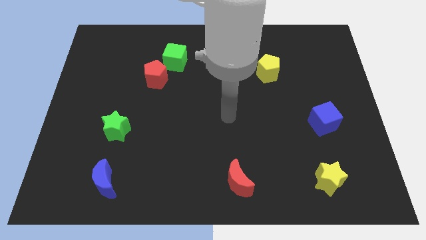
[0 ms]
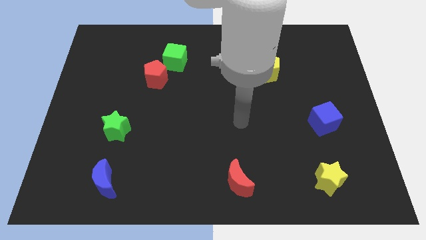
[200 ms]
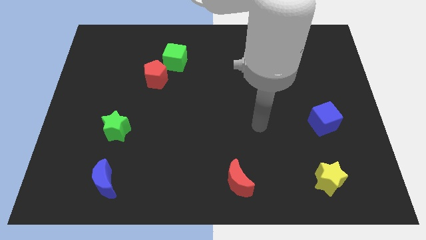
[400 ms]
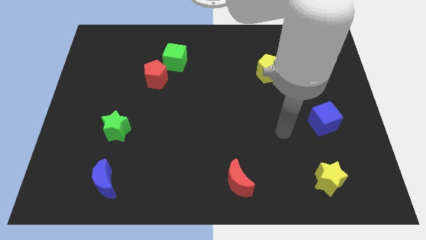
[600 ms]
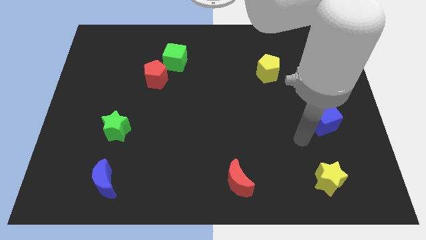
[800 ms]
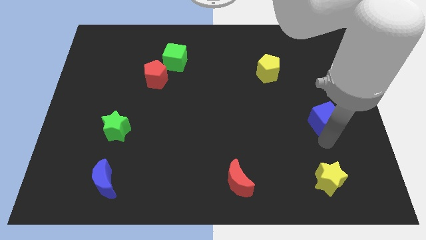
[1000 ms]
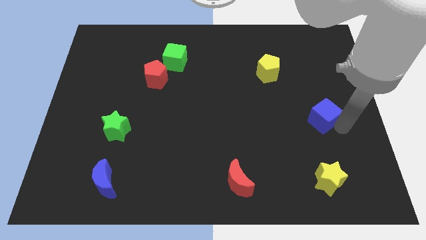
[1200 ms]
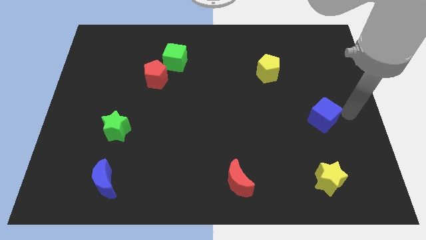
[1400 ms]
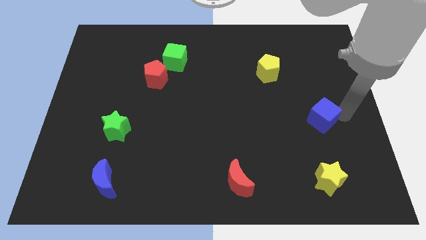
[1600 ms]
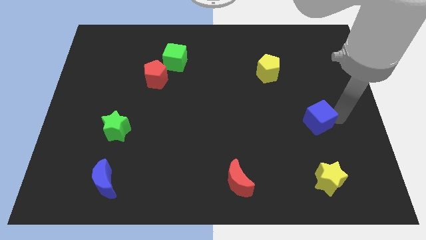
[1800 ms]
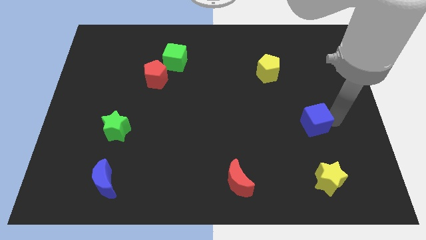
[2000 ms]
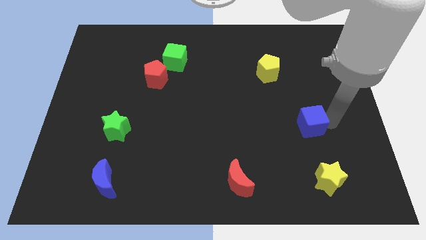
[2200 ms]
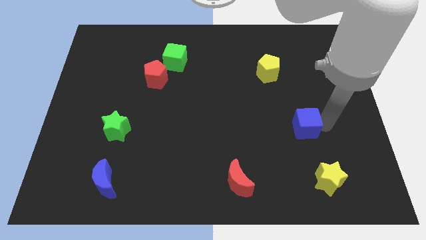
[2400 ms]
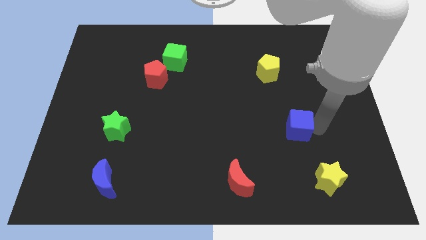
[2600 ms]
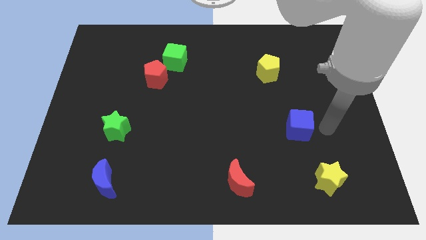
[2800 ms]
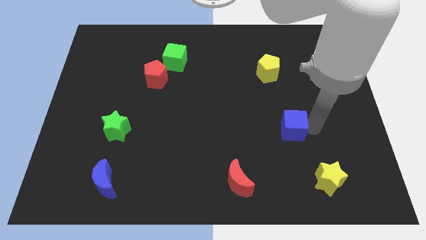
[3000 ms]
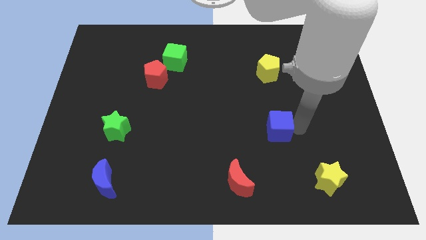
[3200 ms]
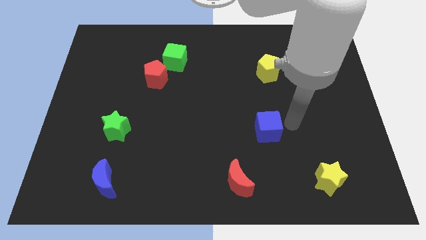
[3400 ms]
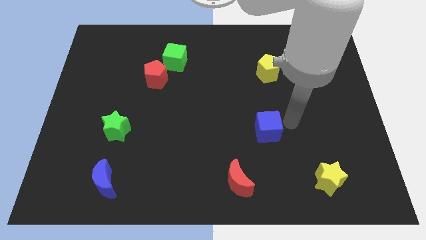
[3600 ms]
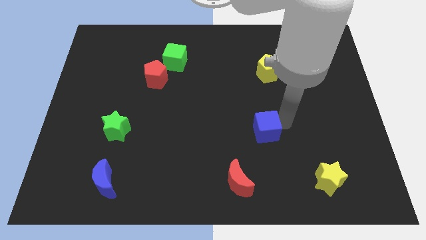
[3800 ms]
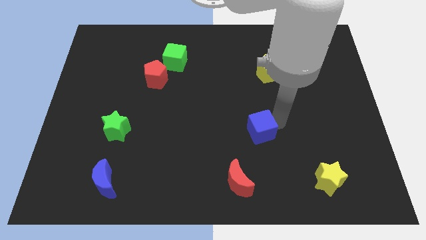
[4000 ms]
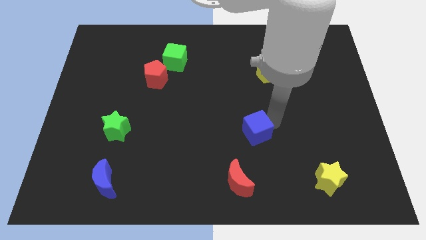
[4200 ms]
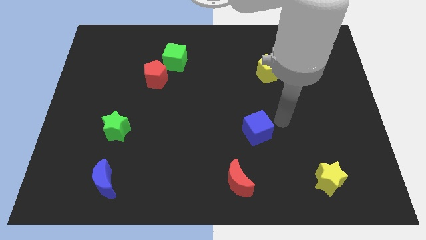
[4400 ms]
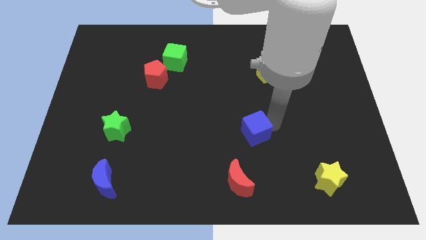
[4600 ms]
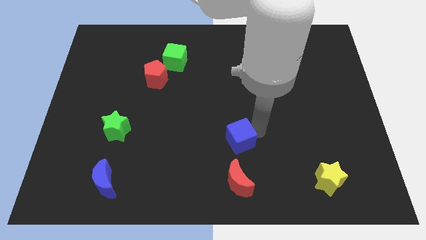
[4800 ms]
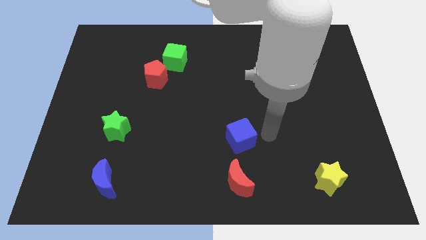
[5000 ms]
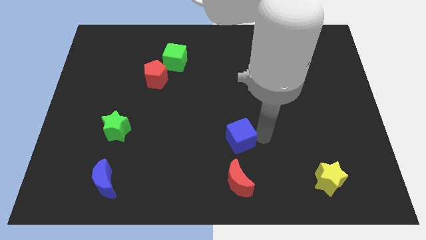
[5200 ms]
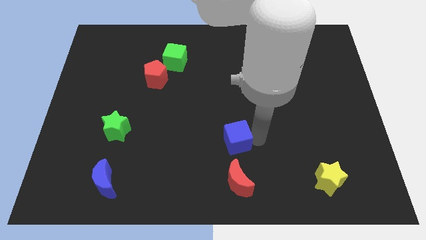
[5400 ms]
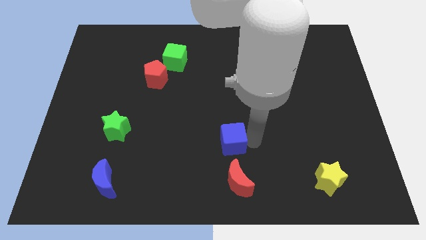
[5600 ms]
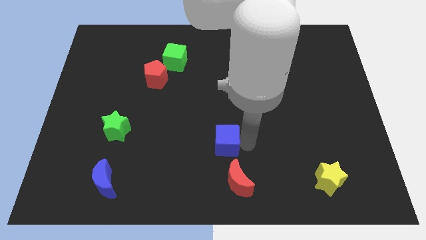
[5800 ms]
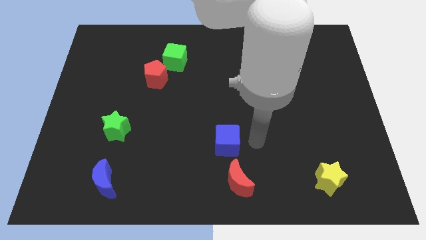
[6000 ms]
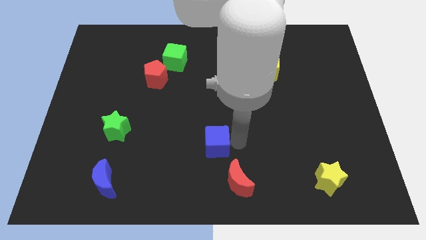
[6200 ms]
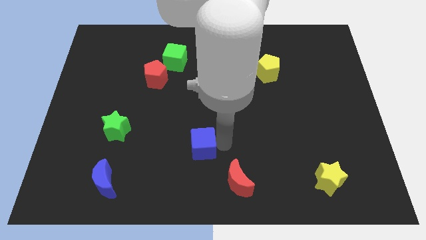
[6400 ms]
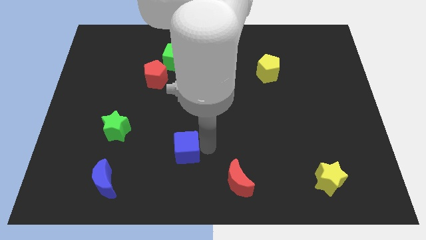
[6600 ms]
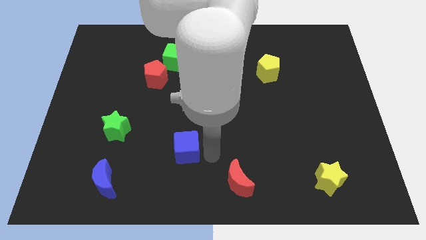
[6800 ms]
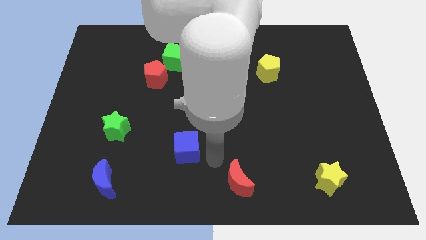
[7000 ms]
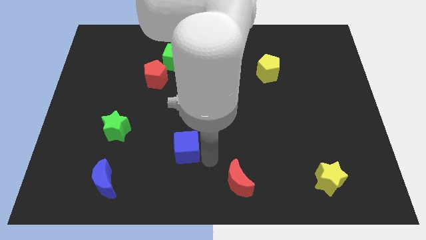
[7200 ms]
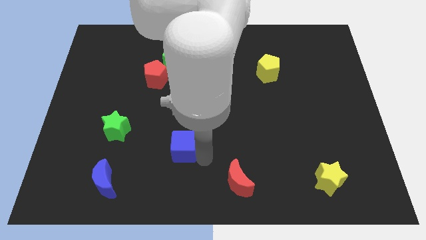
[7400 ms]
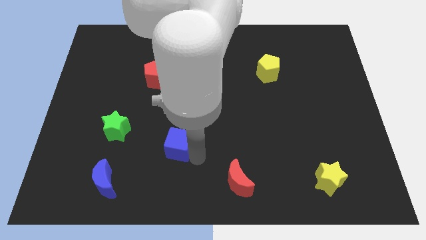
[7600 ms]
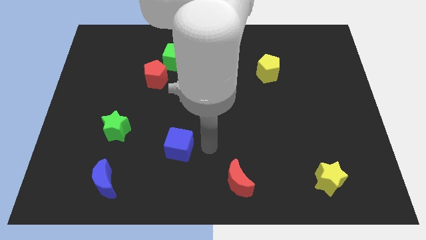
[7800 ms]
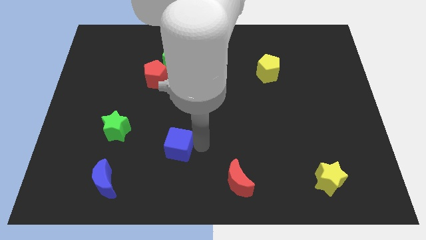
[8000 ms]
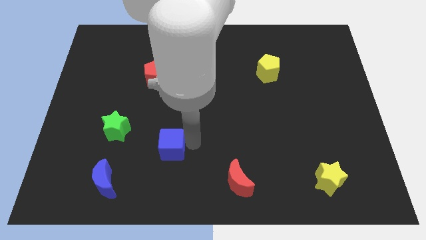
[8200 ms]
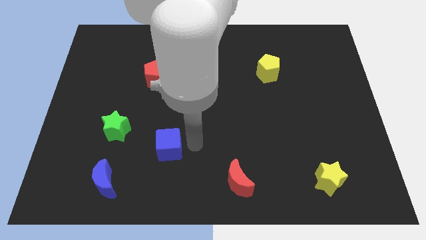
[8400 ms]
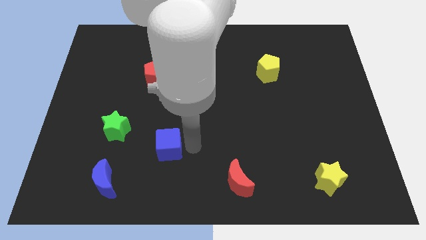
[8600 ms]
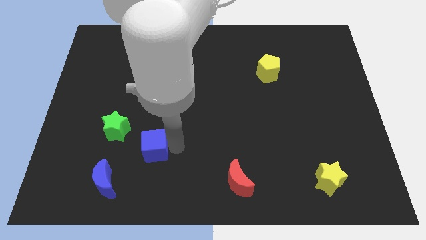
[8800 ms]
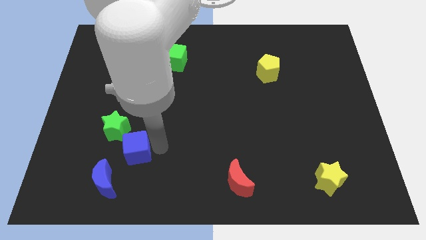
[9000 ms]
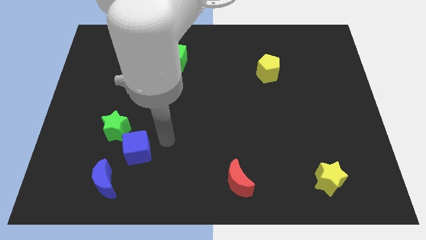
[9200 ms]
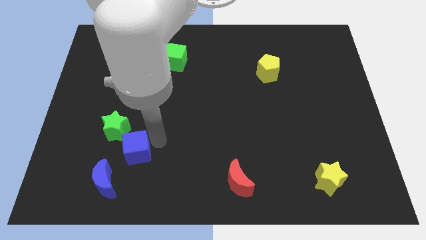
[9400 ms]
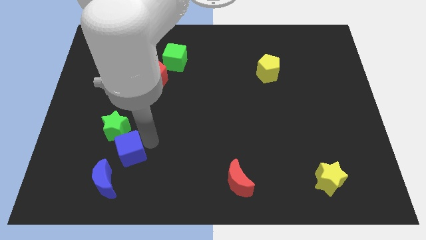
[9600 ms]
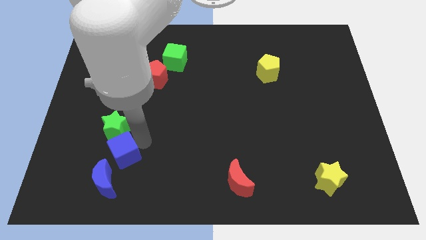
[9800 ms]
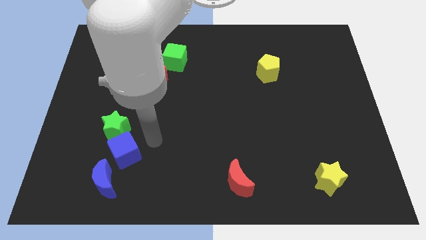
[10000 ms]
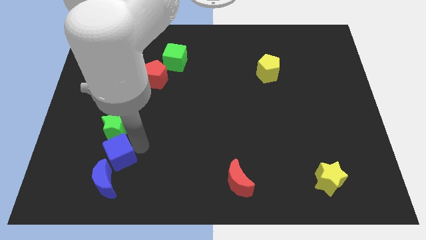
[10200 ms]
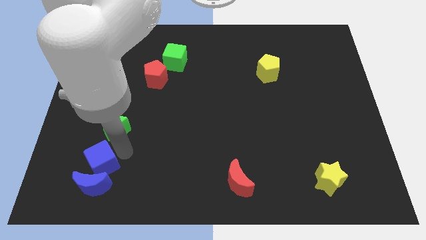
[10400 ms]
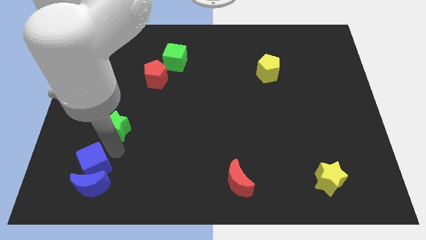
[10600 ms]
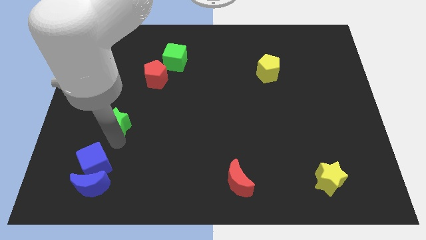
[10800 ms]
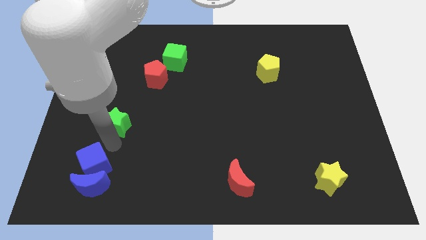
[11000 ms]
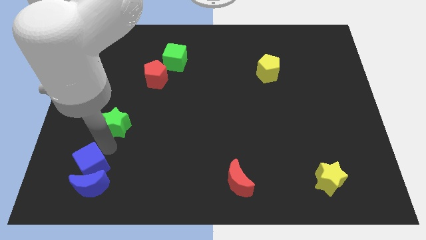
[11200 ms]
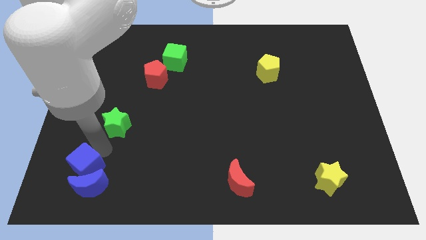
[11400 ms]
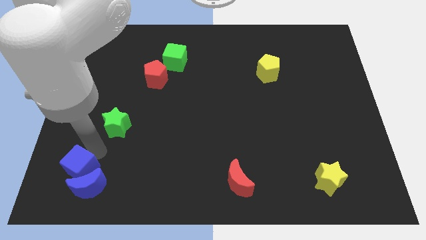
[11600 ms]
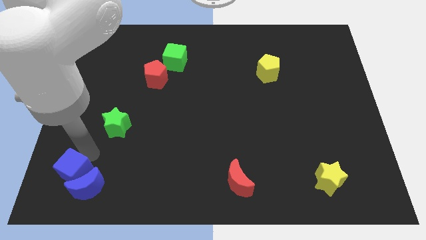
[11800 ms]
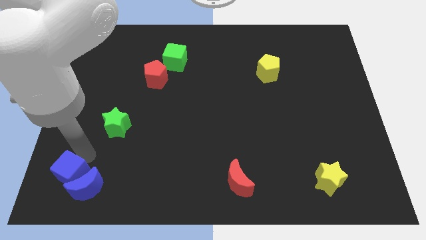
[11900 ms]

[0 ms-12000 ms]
slide the blue cube to the bottom left corner
